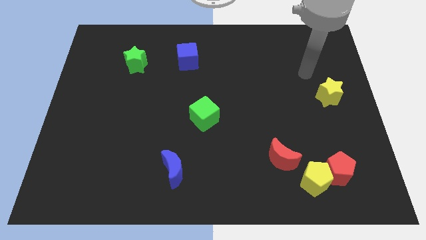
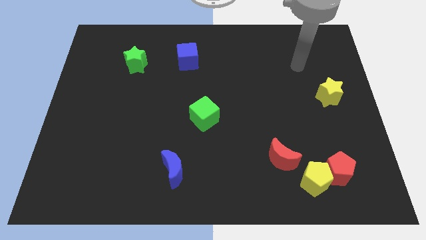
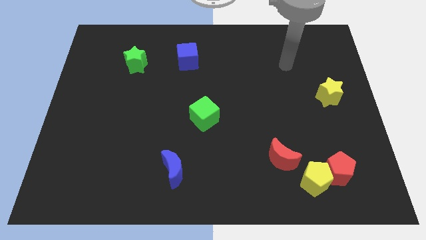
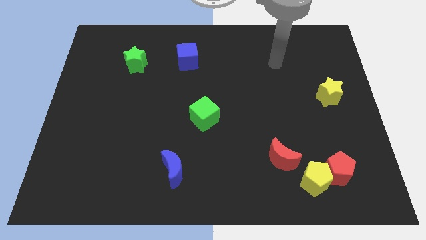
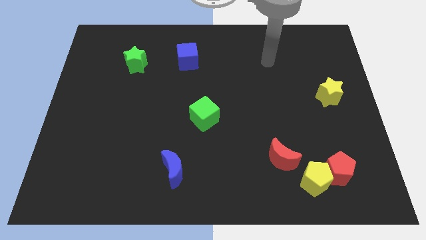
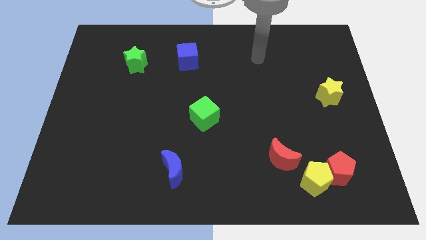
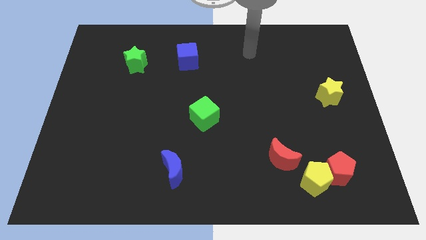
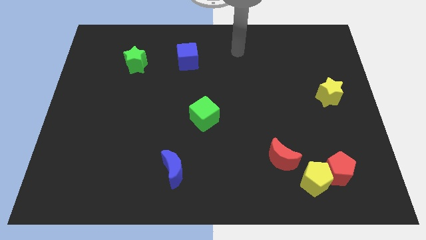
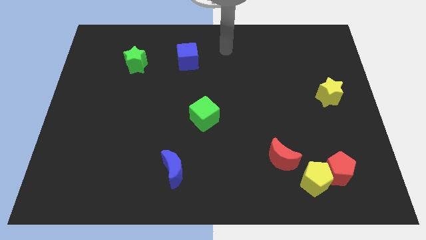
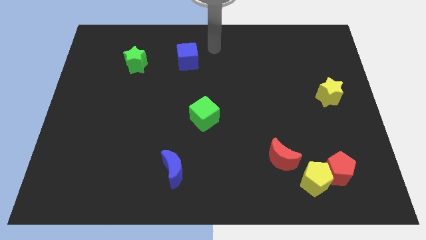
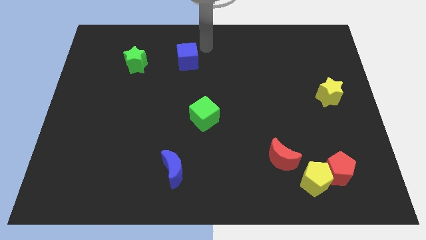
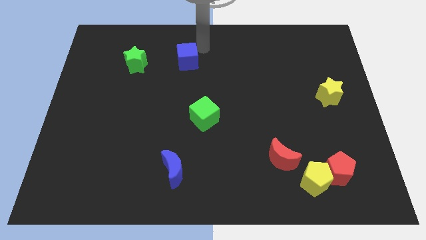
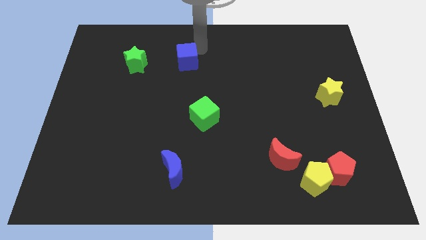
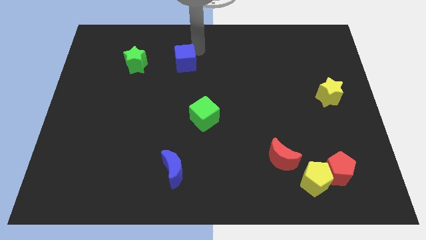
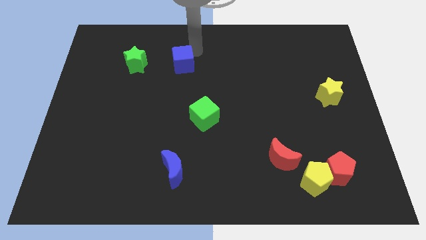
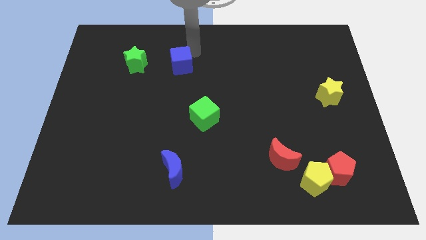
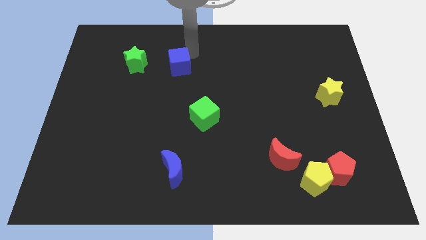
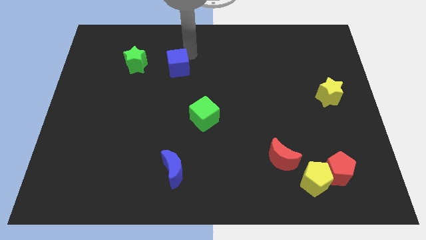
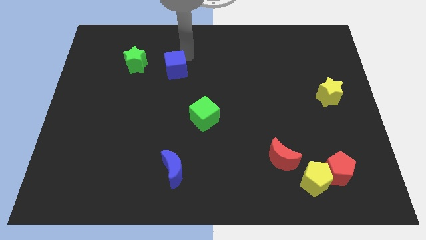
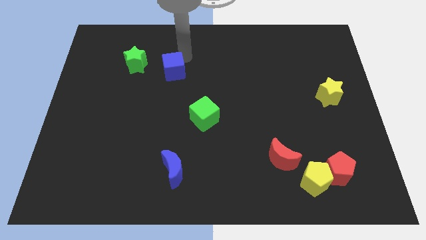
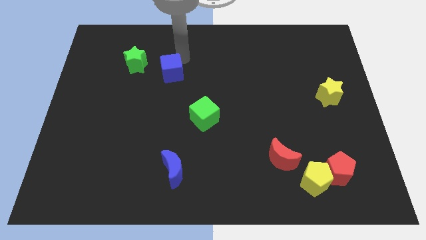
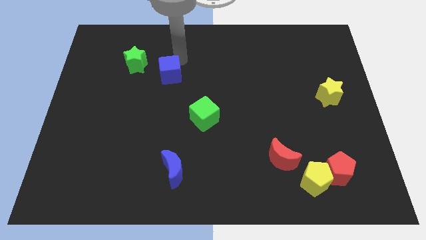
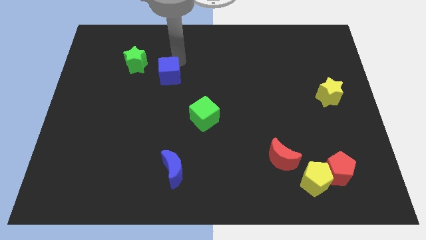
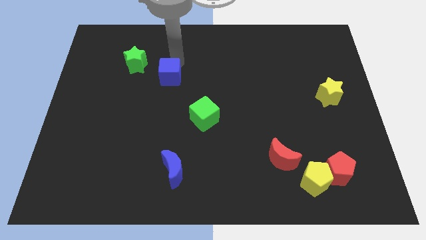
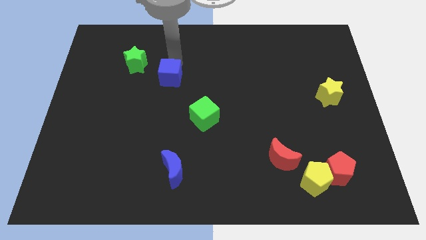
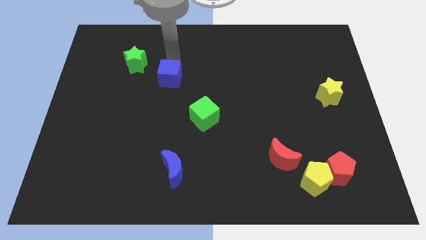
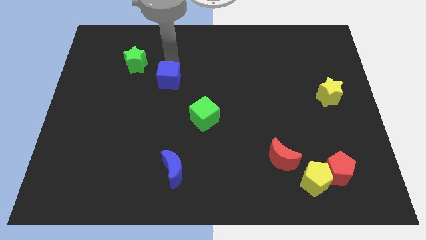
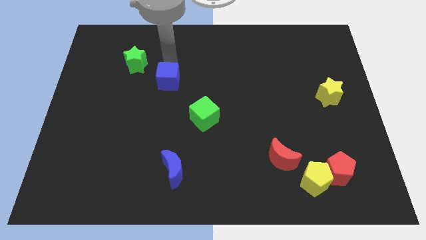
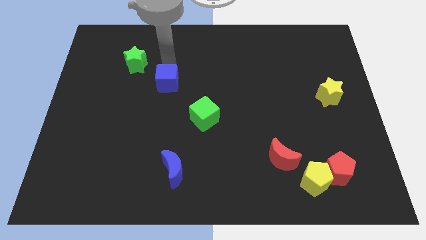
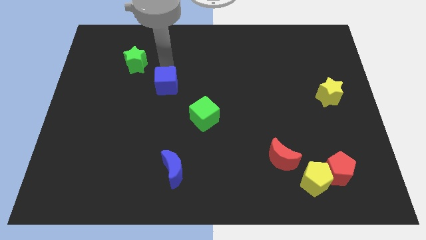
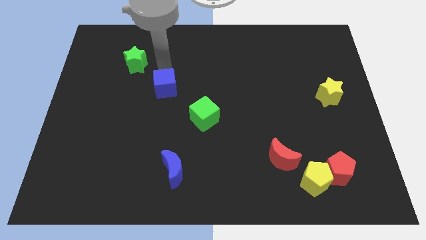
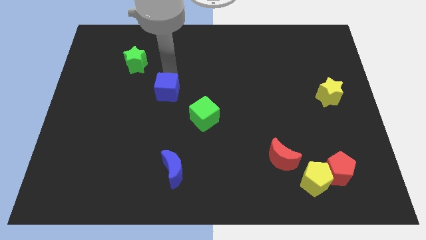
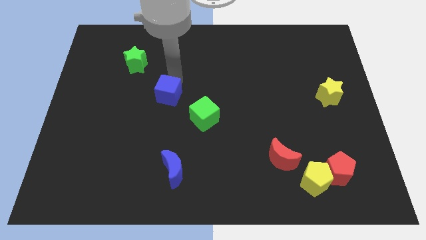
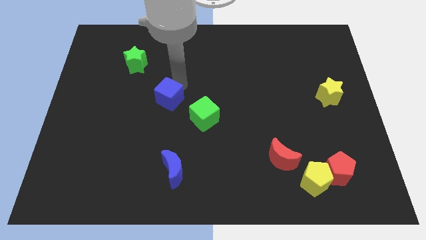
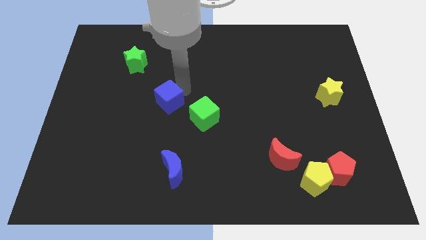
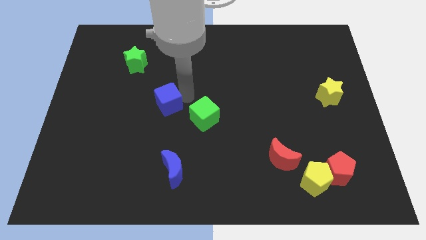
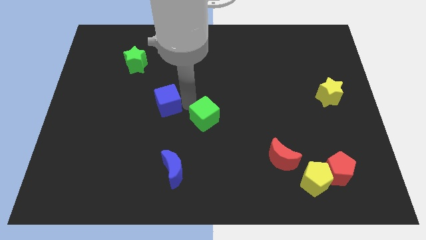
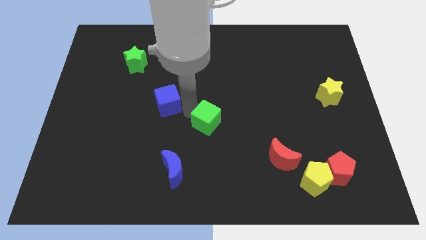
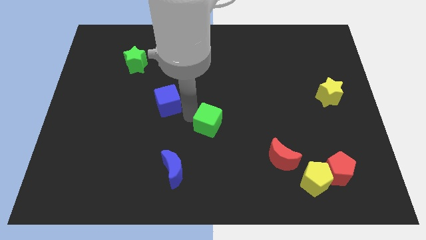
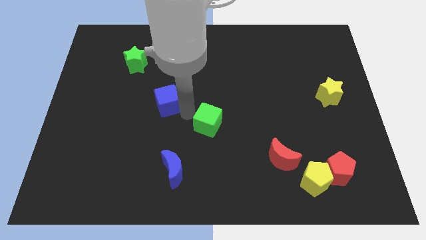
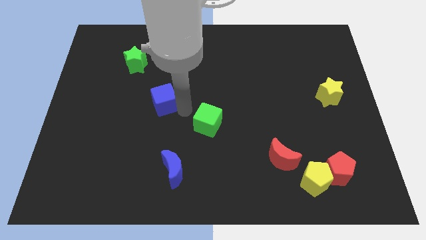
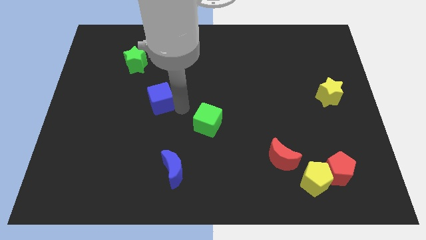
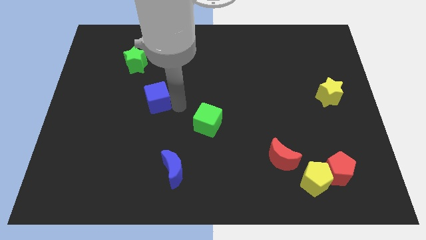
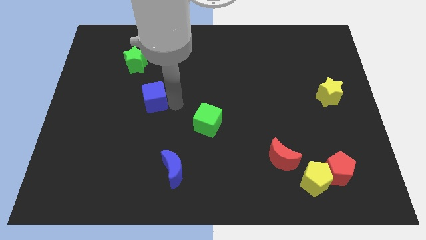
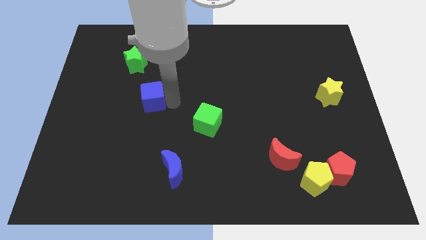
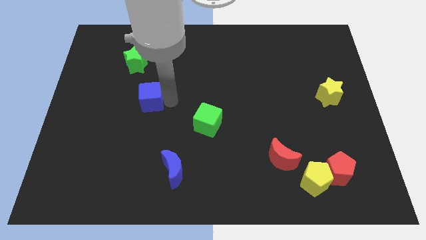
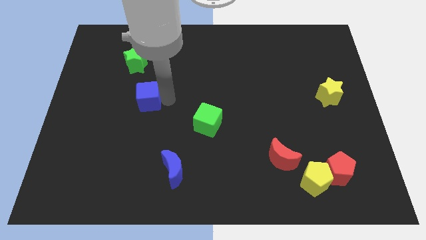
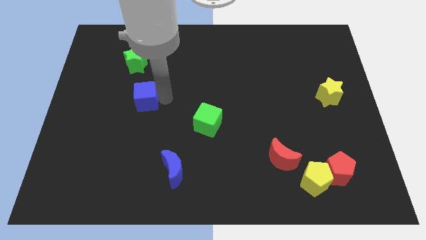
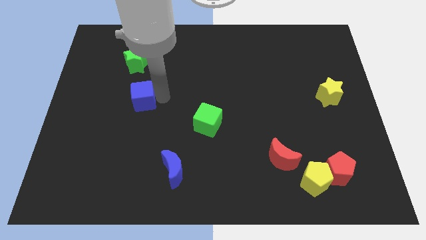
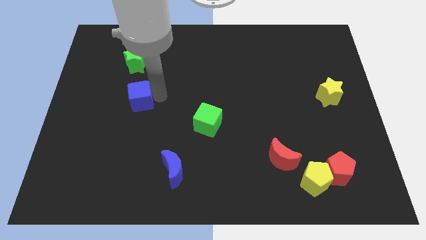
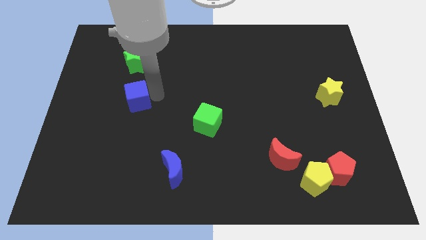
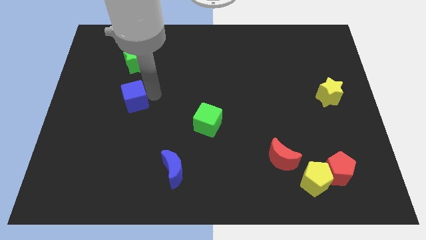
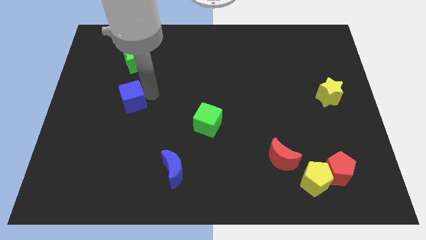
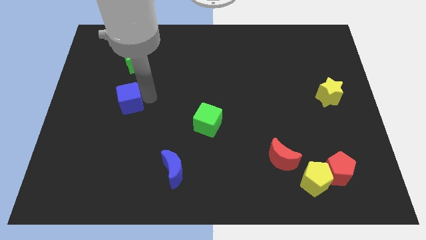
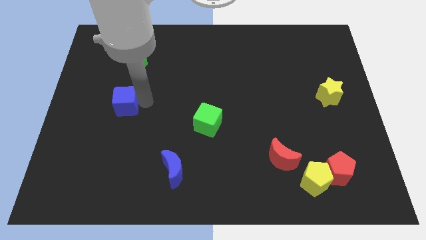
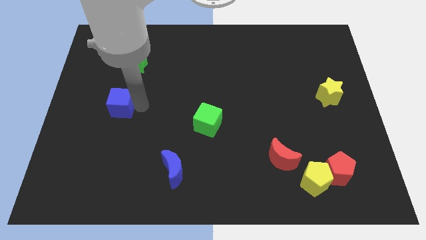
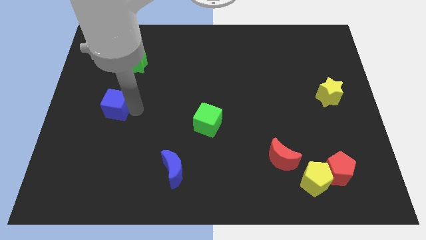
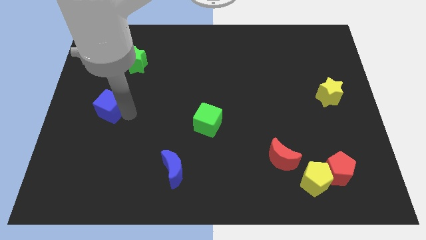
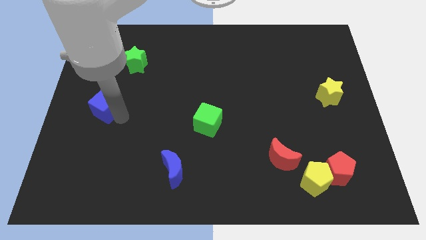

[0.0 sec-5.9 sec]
push the blue cube to the left side of the board
